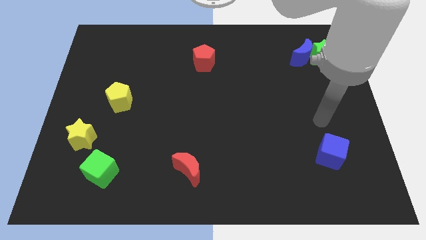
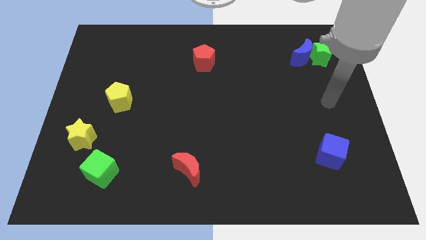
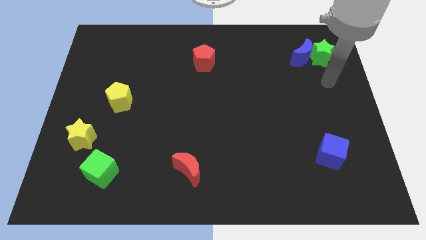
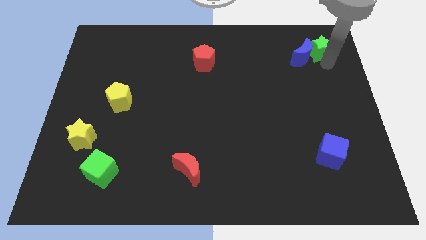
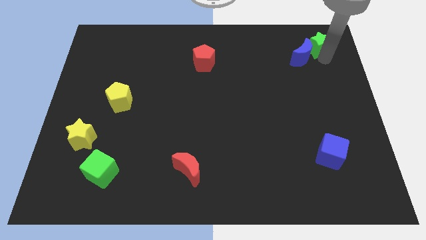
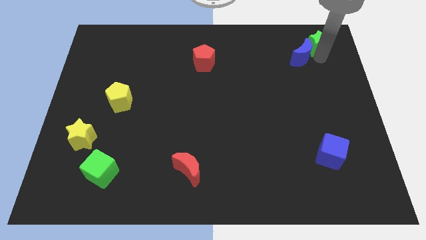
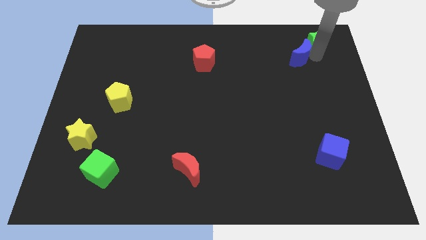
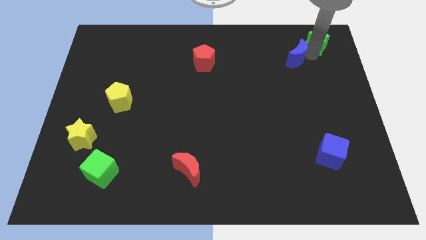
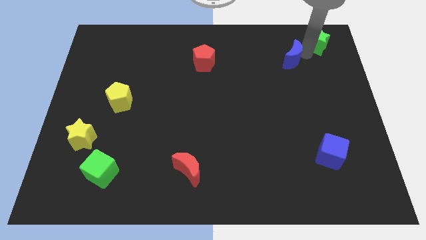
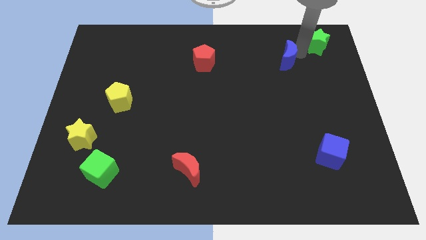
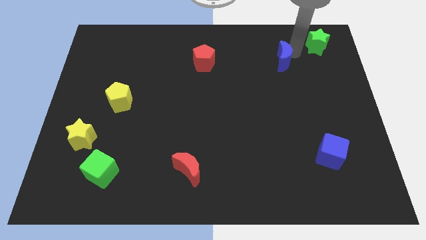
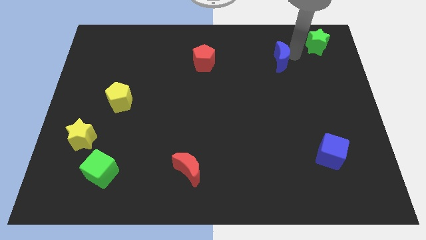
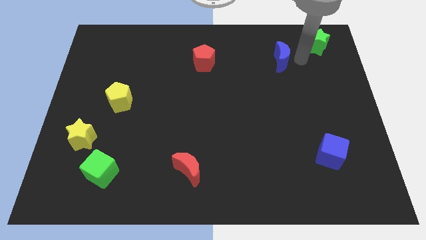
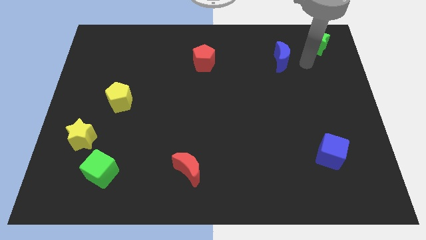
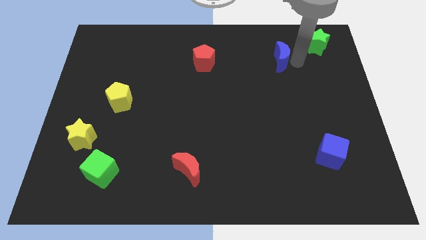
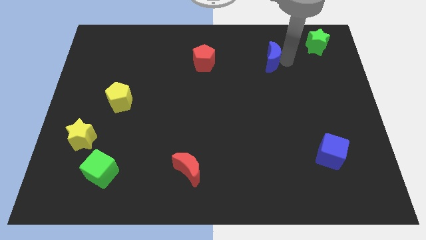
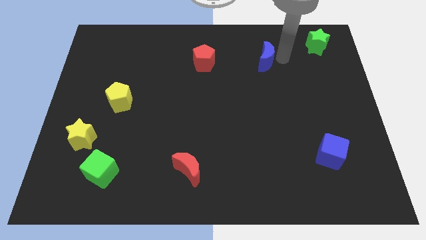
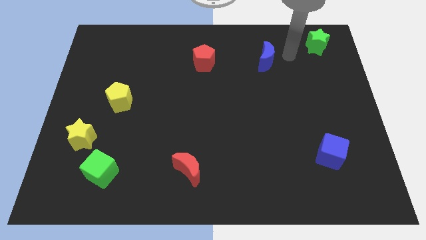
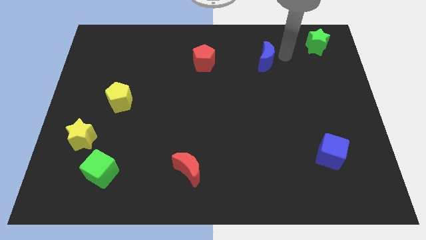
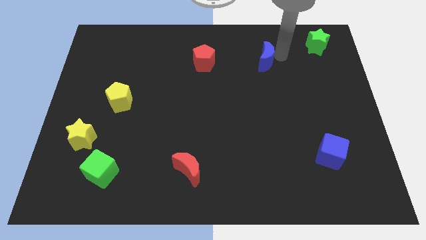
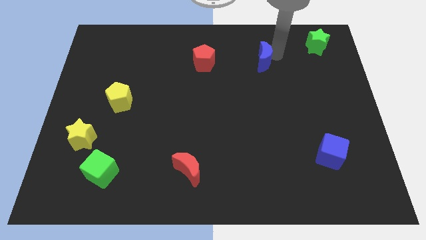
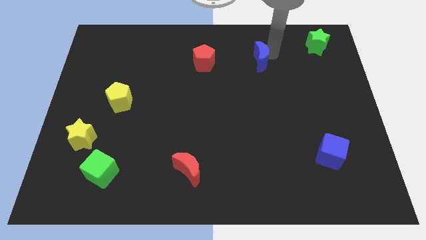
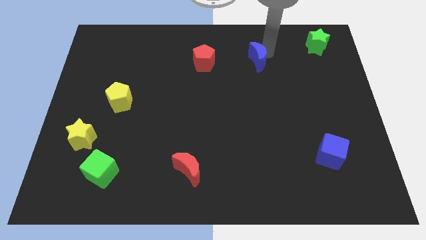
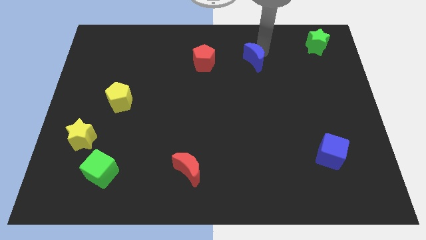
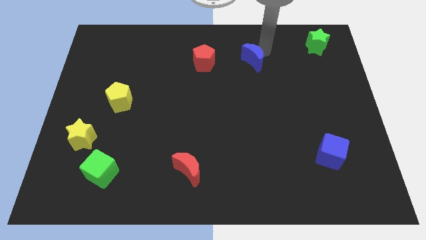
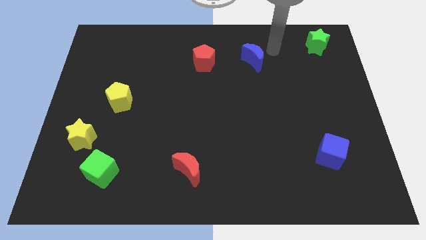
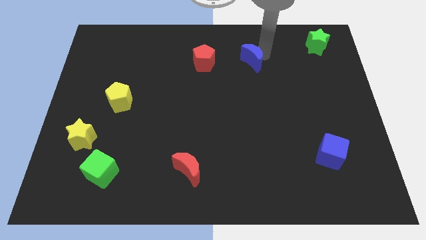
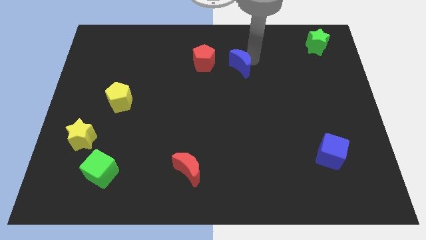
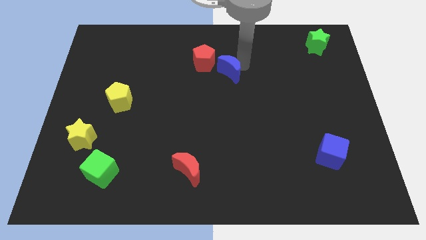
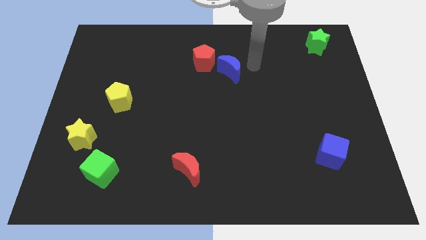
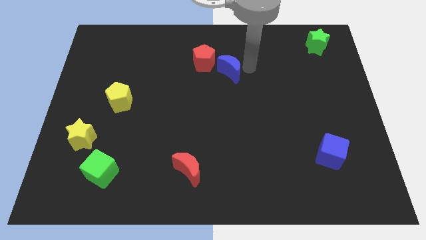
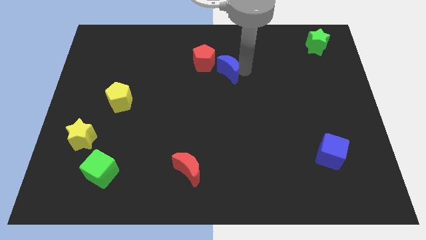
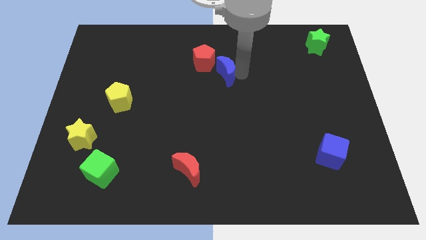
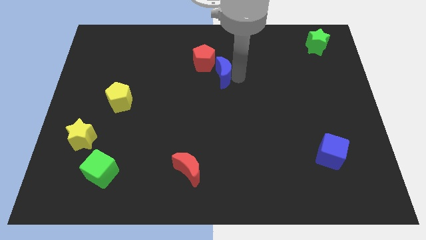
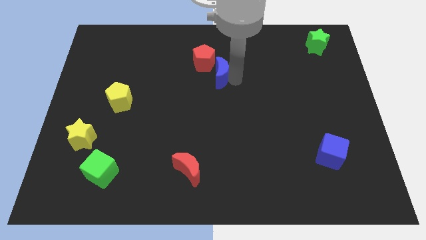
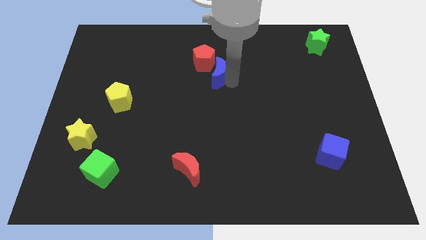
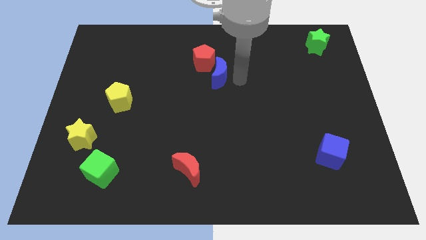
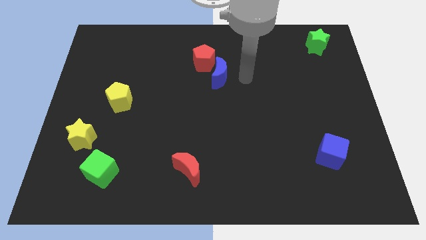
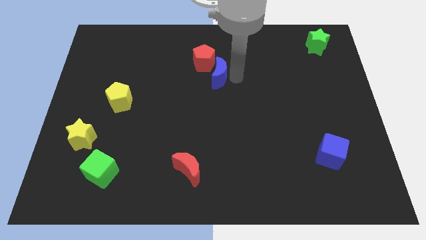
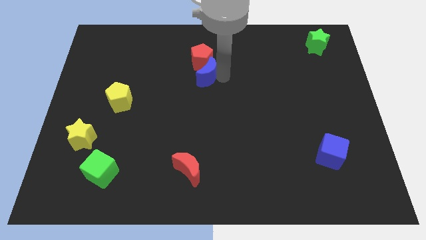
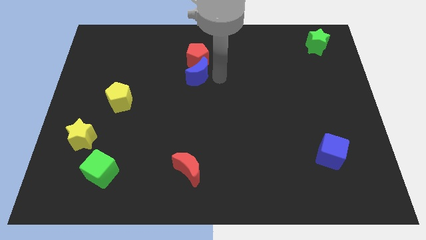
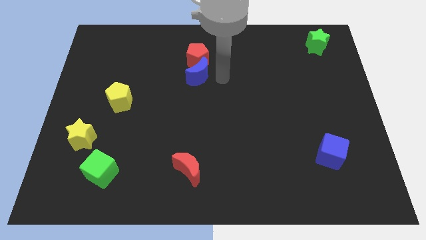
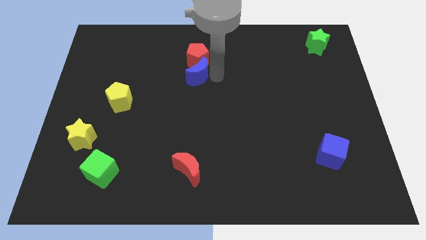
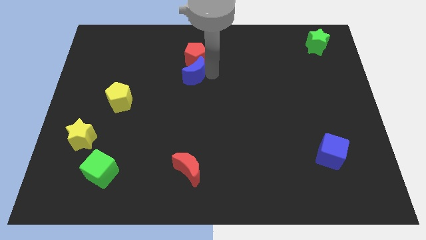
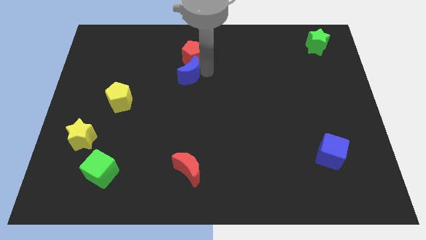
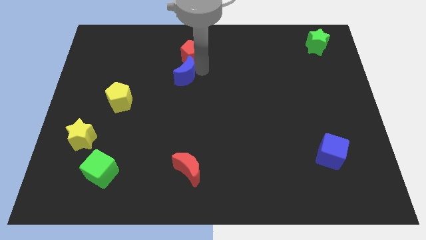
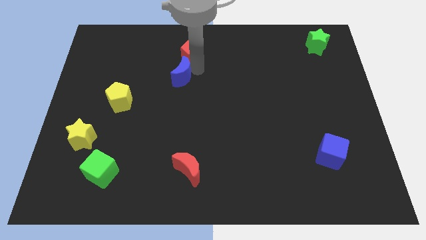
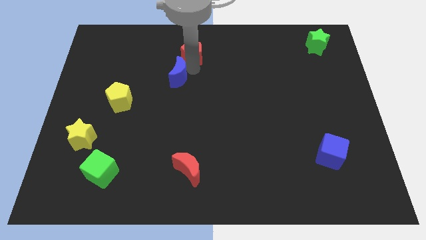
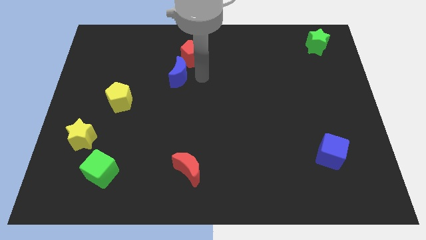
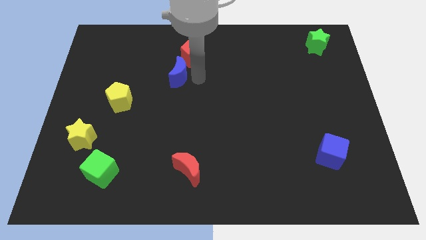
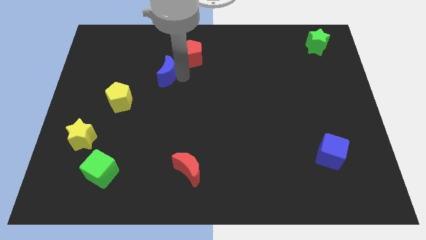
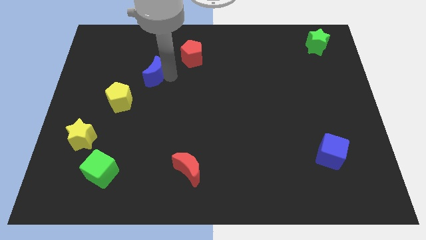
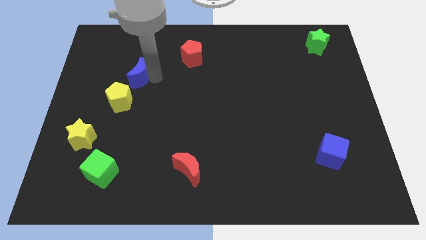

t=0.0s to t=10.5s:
move the blue moon above the yellow pentagon

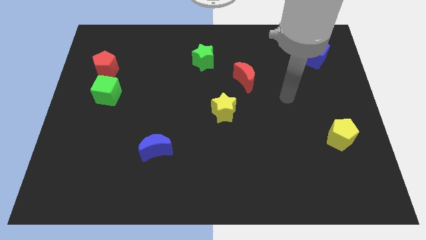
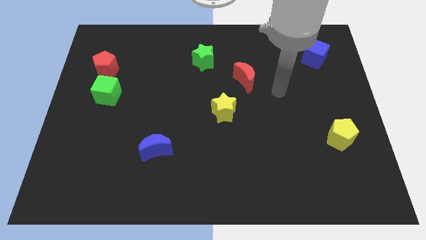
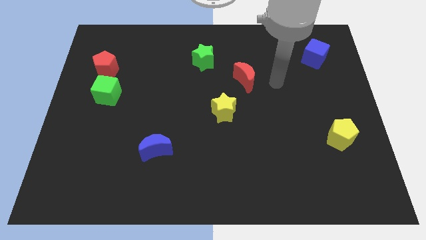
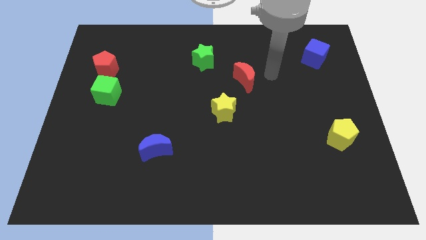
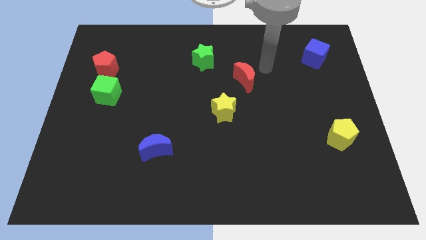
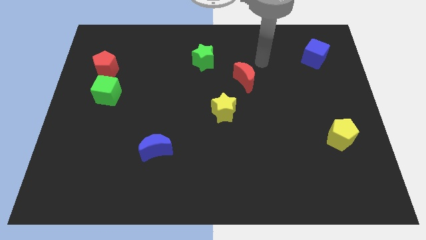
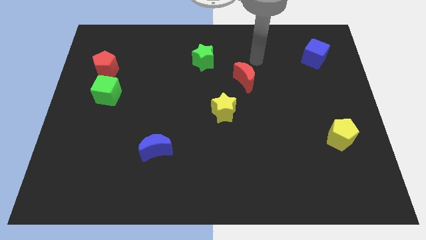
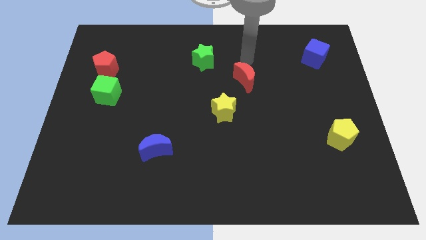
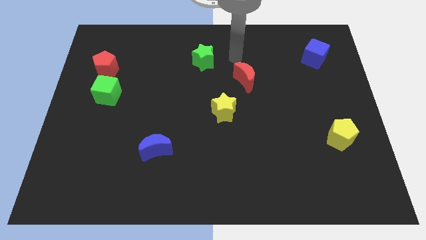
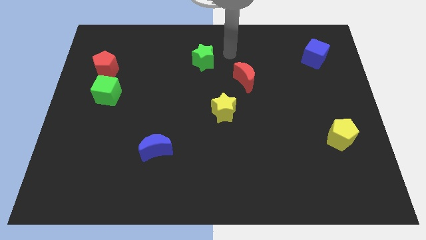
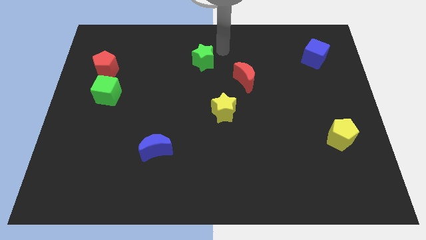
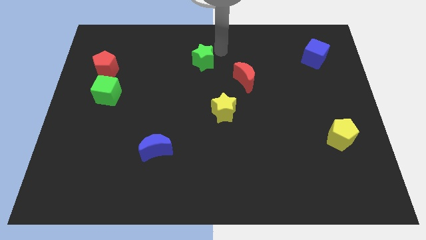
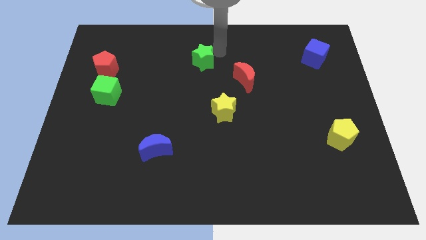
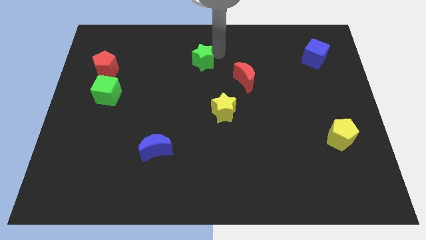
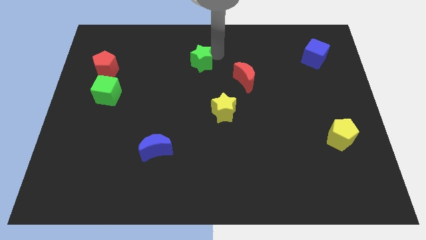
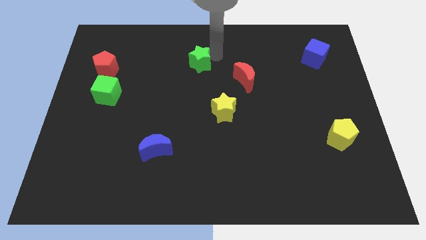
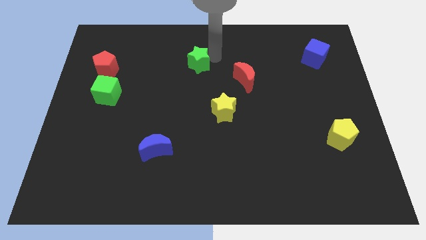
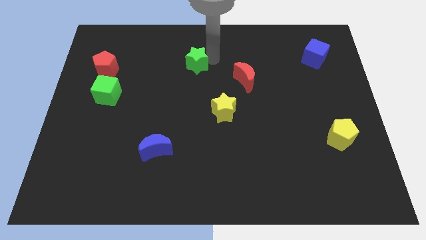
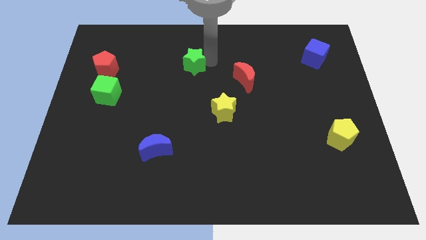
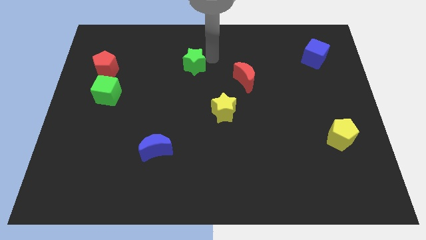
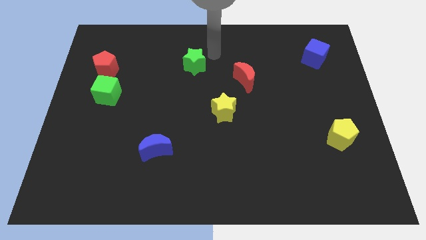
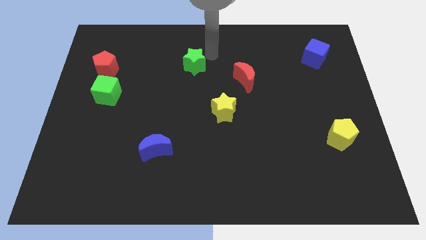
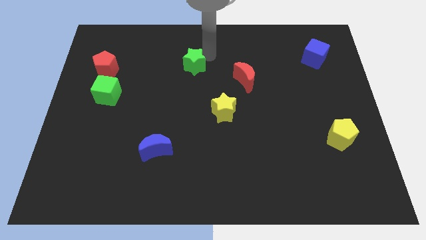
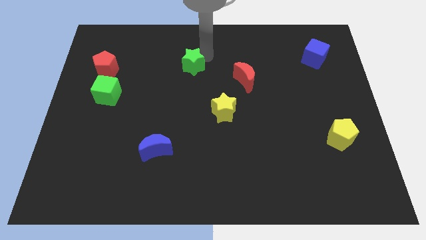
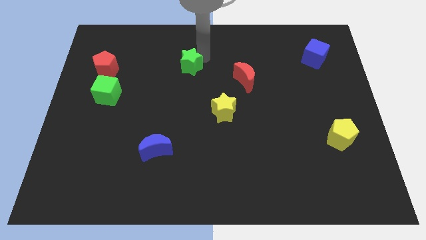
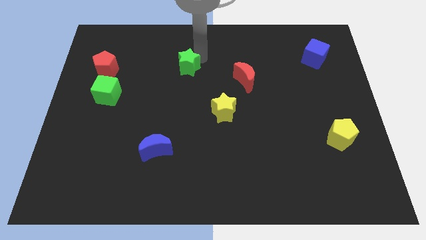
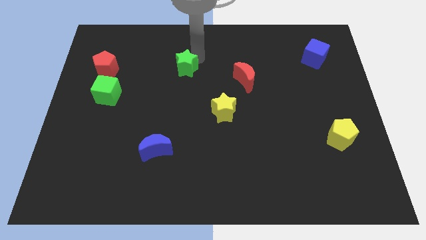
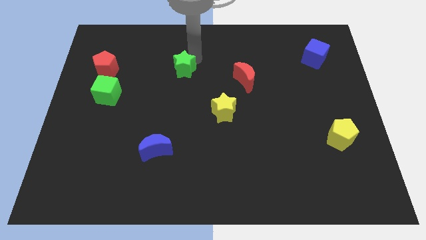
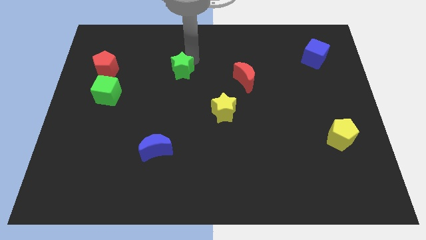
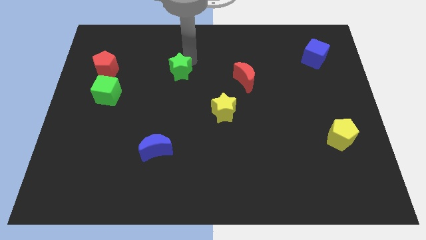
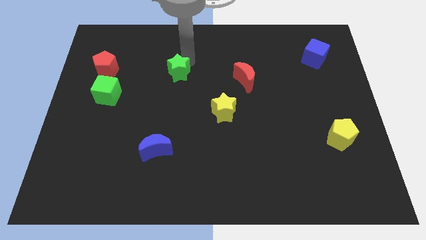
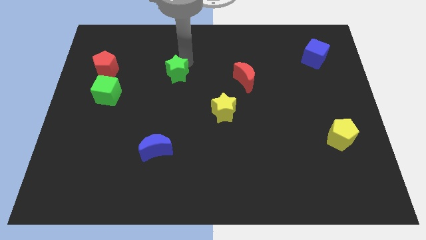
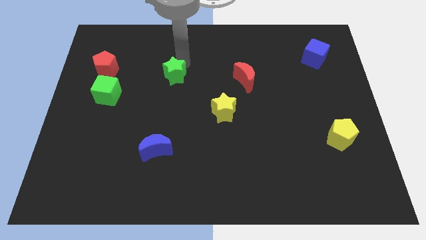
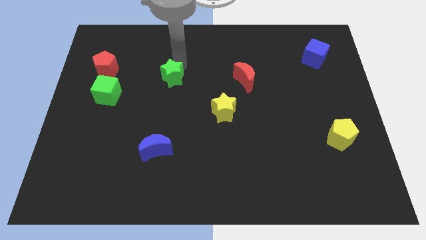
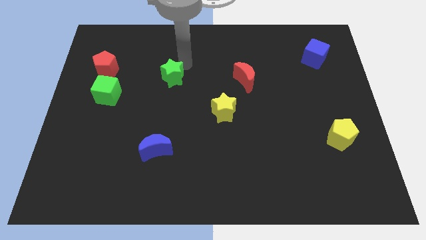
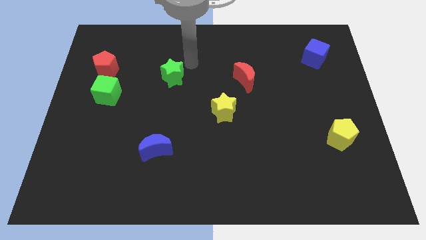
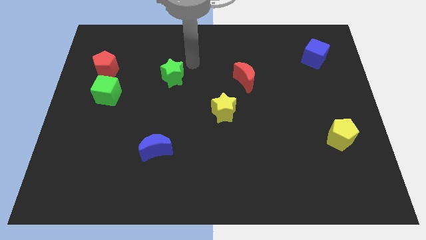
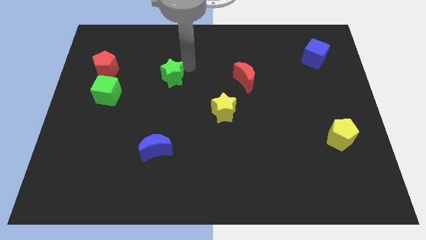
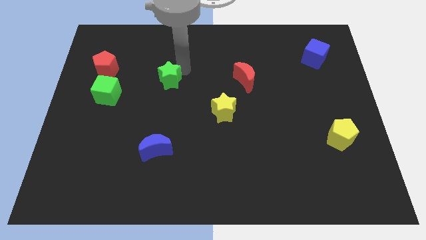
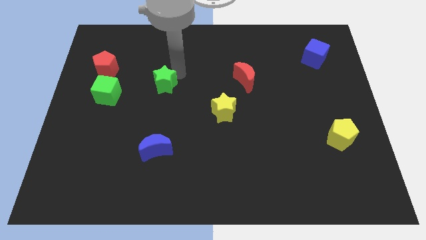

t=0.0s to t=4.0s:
put the green star to the right of the green cube
